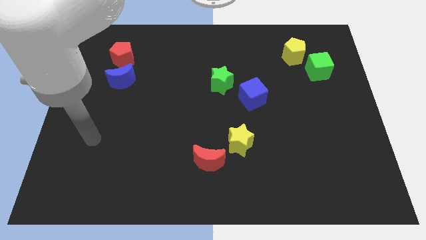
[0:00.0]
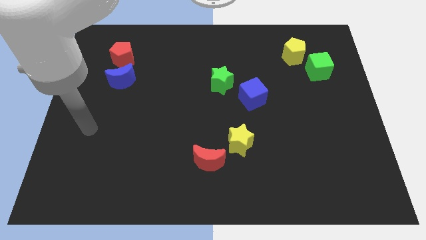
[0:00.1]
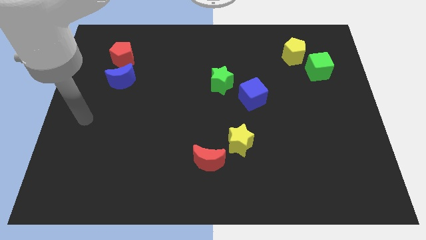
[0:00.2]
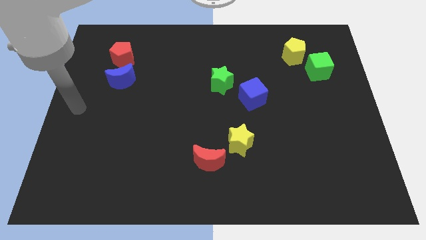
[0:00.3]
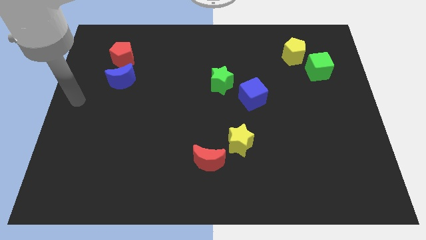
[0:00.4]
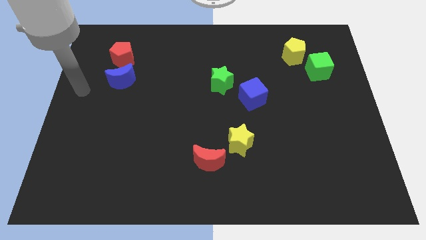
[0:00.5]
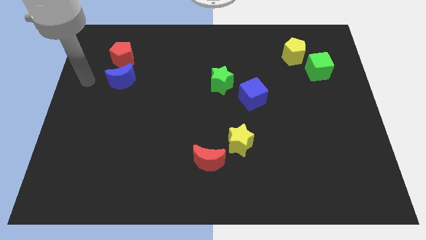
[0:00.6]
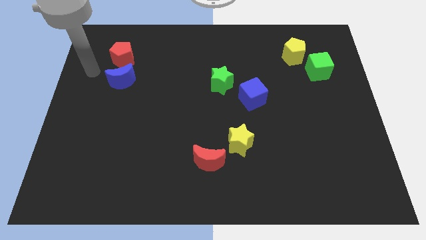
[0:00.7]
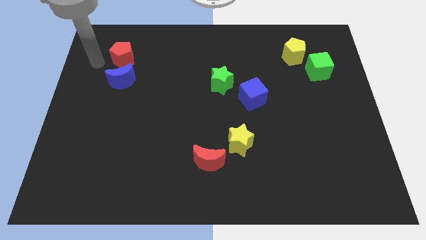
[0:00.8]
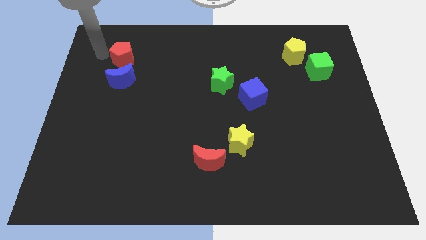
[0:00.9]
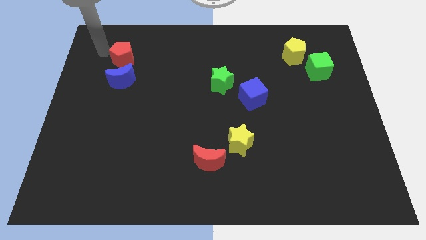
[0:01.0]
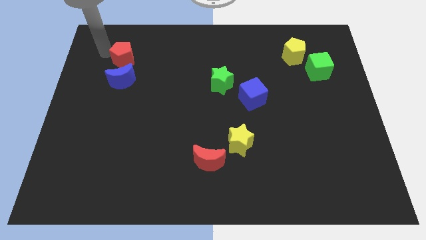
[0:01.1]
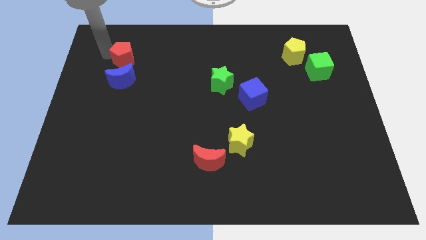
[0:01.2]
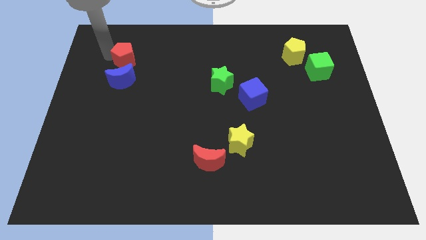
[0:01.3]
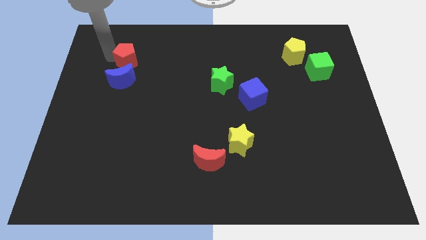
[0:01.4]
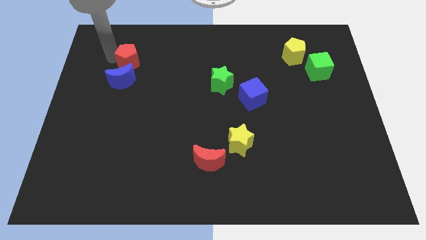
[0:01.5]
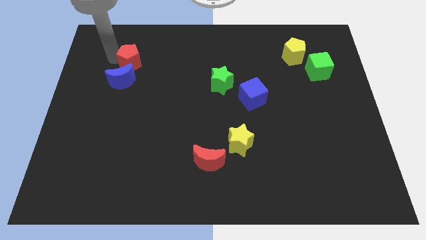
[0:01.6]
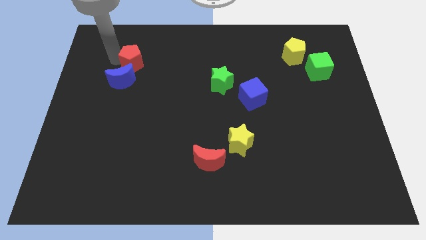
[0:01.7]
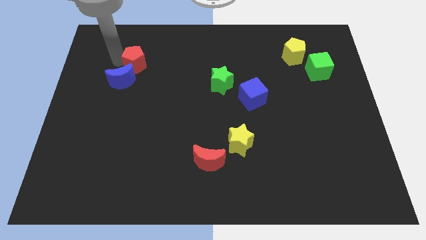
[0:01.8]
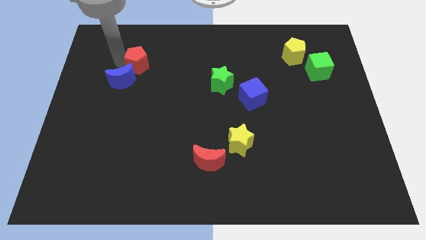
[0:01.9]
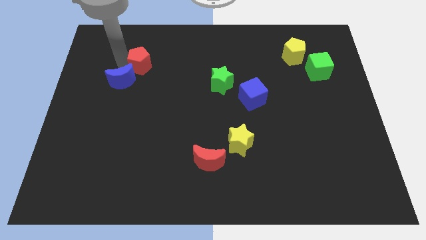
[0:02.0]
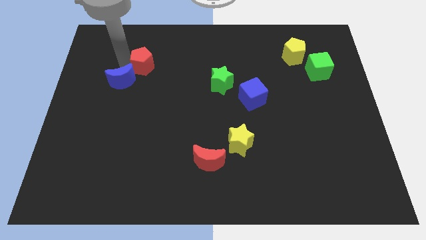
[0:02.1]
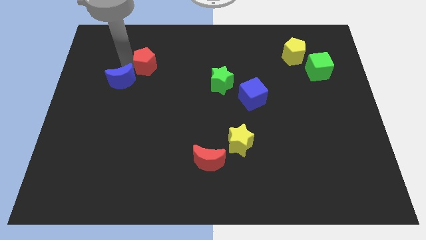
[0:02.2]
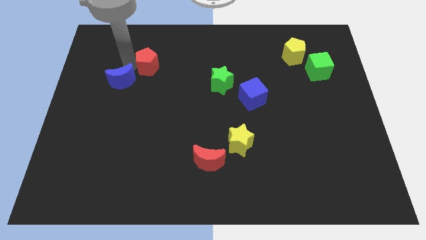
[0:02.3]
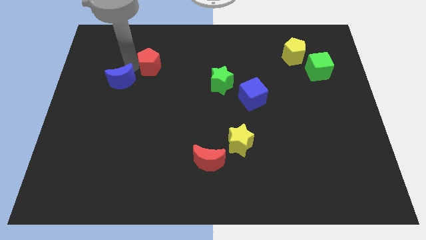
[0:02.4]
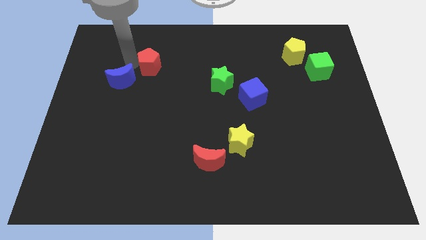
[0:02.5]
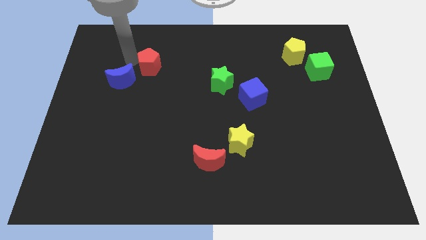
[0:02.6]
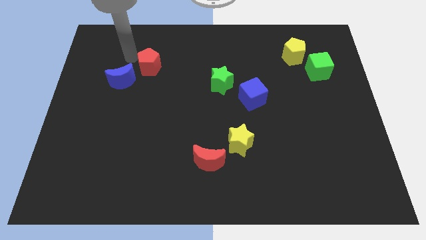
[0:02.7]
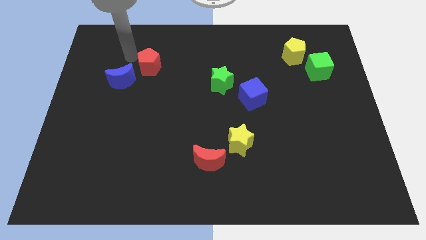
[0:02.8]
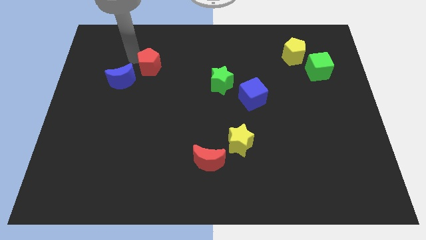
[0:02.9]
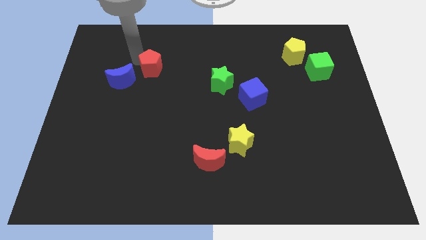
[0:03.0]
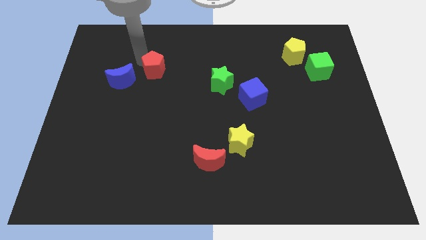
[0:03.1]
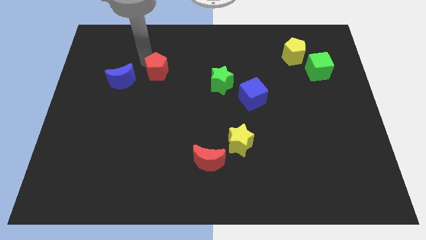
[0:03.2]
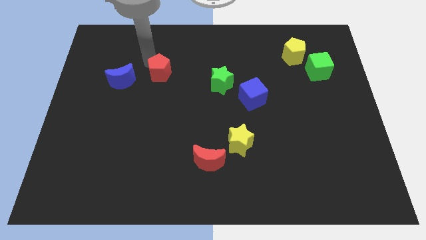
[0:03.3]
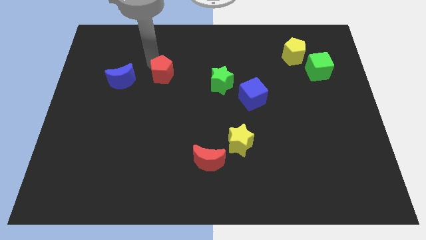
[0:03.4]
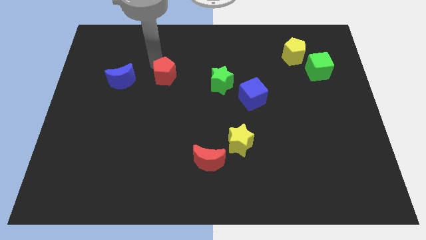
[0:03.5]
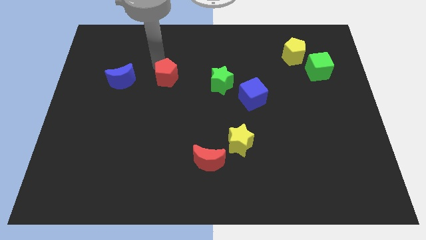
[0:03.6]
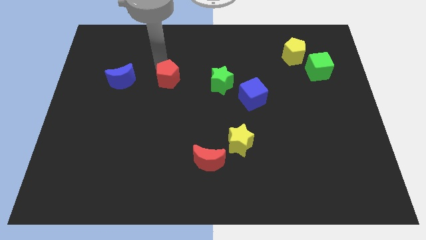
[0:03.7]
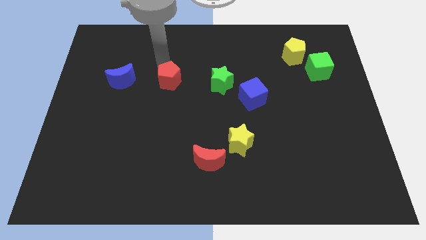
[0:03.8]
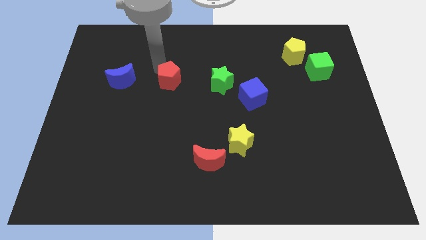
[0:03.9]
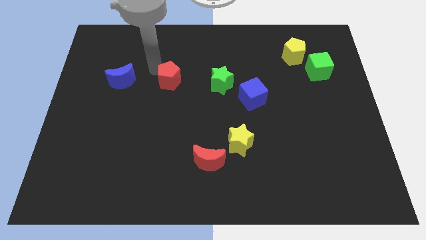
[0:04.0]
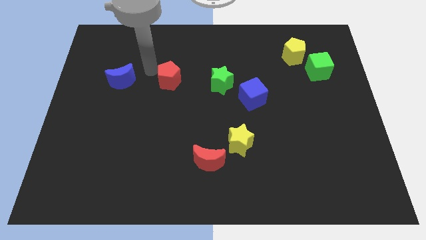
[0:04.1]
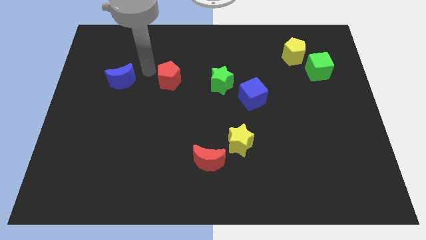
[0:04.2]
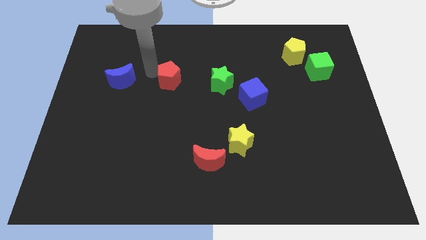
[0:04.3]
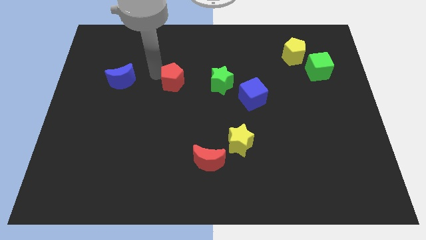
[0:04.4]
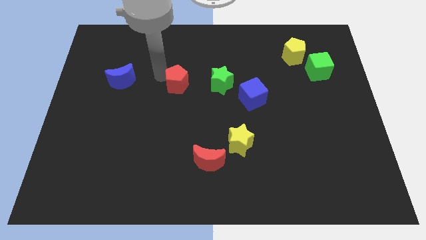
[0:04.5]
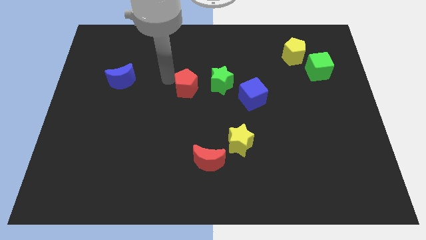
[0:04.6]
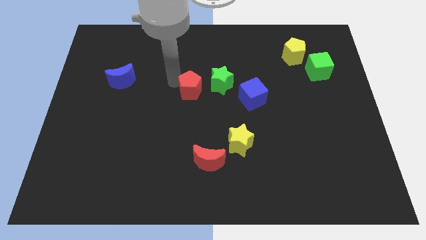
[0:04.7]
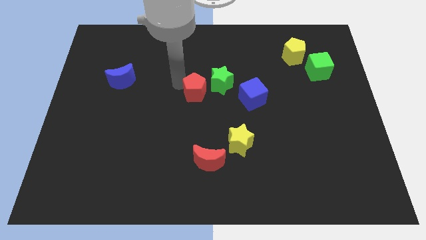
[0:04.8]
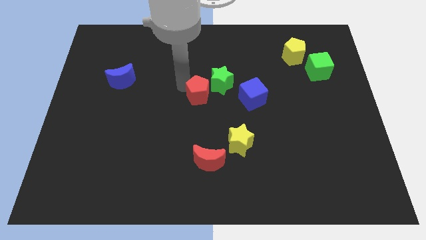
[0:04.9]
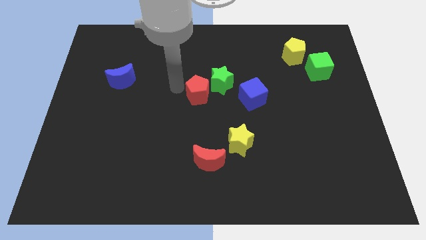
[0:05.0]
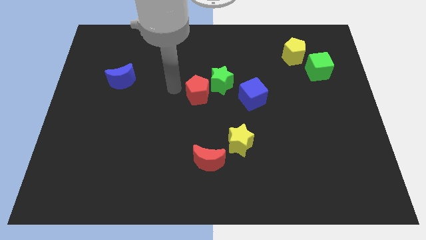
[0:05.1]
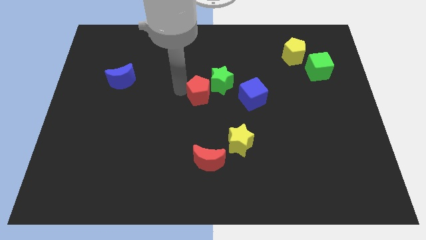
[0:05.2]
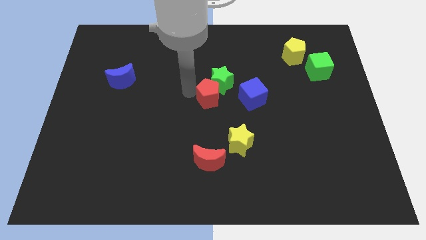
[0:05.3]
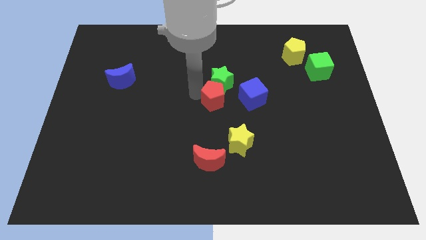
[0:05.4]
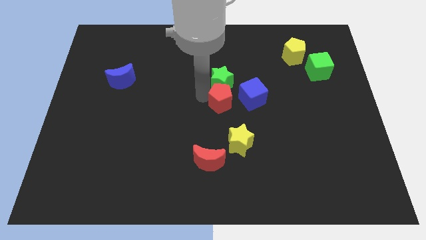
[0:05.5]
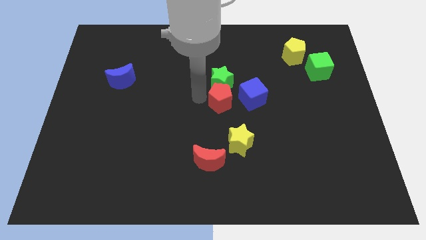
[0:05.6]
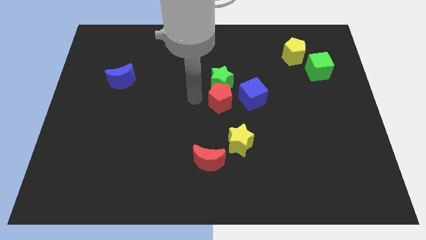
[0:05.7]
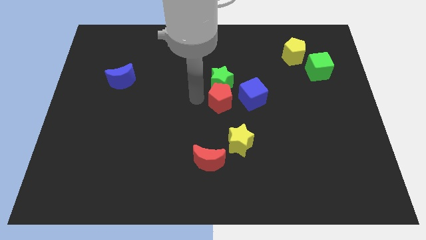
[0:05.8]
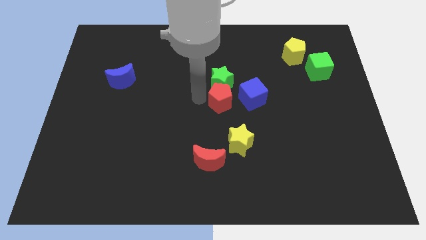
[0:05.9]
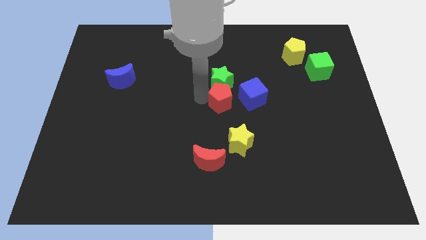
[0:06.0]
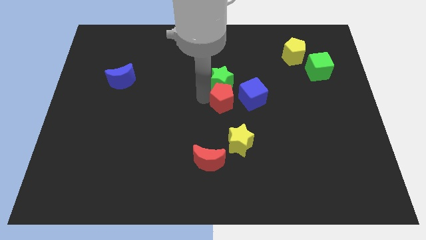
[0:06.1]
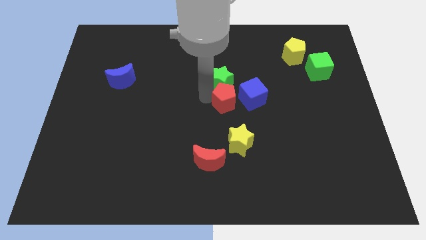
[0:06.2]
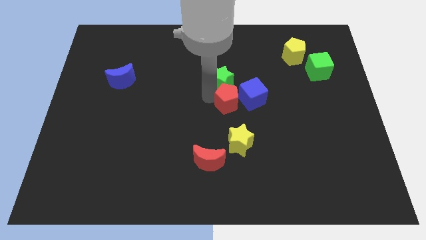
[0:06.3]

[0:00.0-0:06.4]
push the red pentagon next to the blue cube

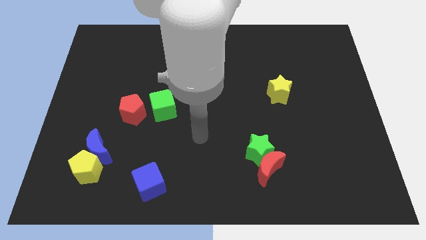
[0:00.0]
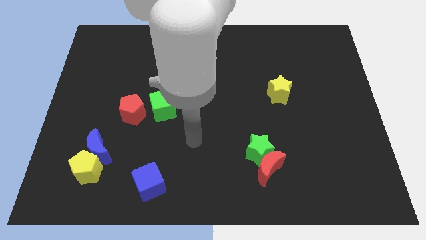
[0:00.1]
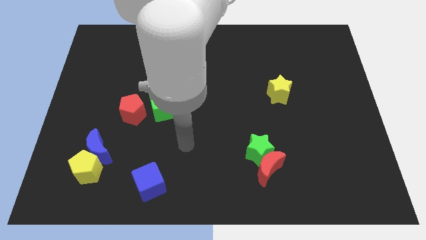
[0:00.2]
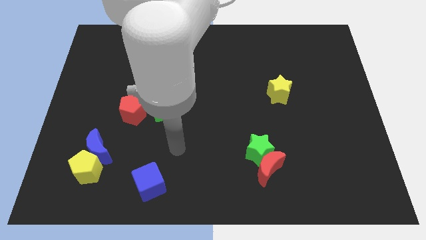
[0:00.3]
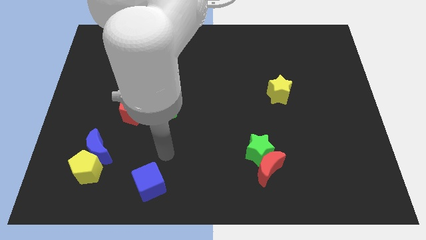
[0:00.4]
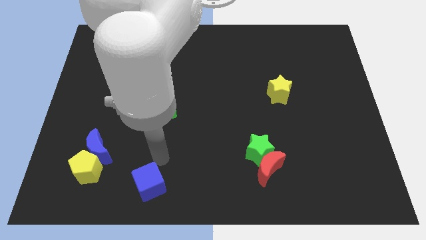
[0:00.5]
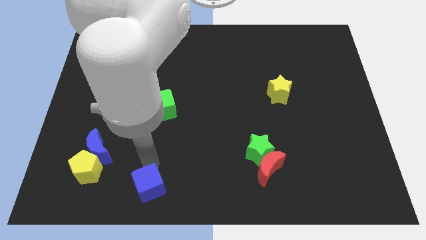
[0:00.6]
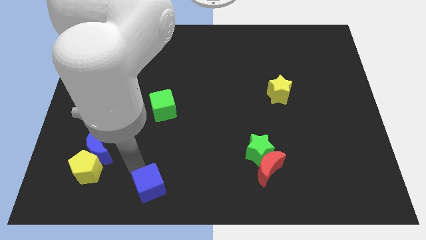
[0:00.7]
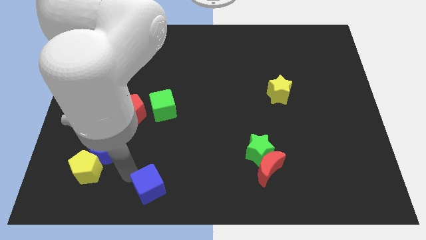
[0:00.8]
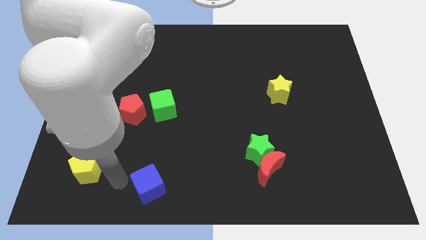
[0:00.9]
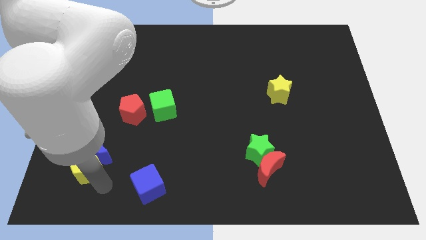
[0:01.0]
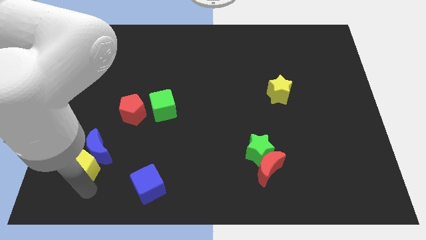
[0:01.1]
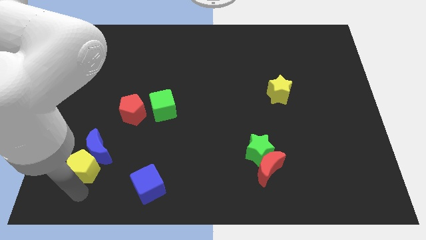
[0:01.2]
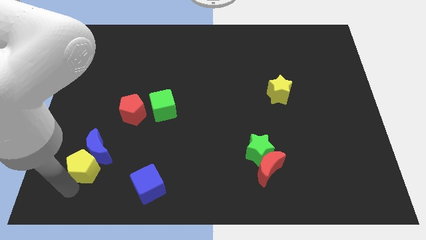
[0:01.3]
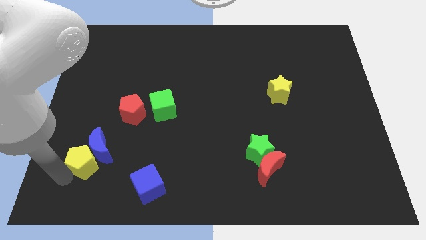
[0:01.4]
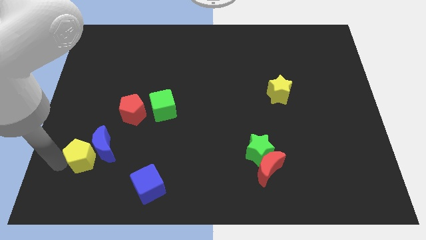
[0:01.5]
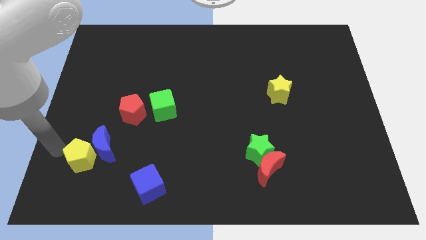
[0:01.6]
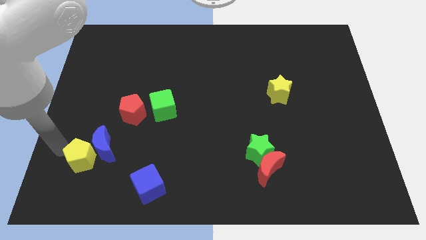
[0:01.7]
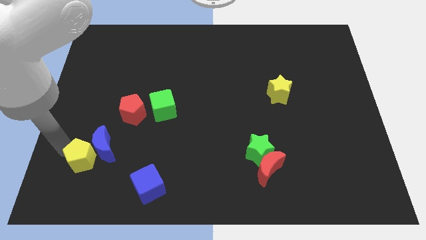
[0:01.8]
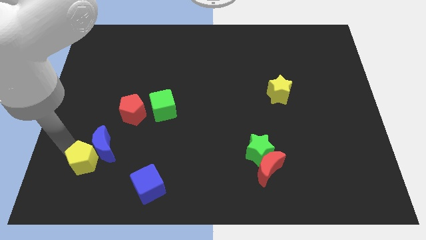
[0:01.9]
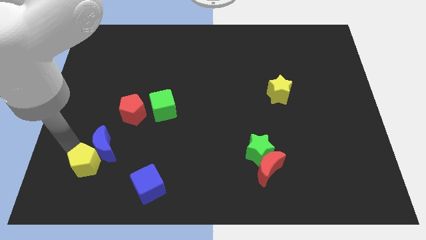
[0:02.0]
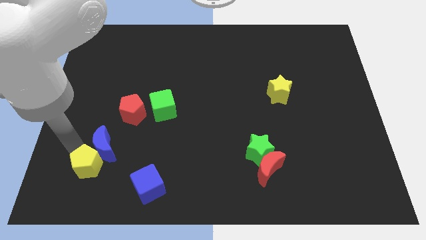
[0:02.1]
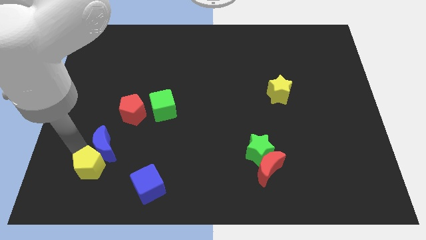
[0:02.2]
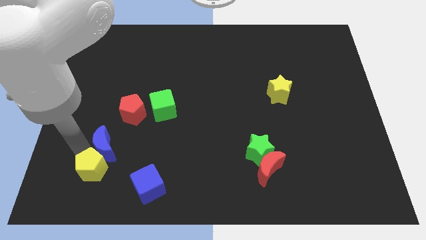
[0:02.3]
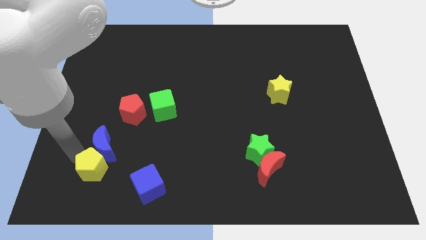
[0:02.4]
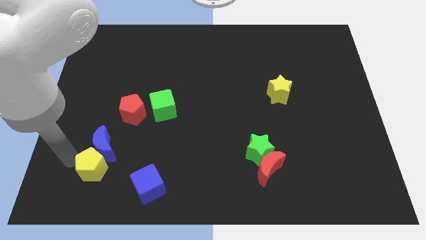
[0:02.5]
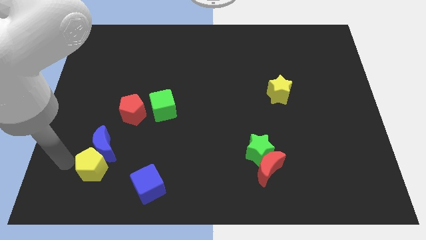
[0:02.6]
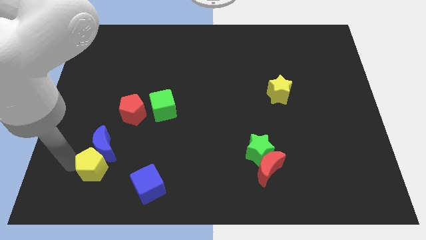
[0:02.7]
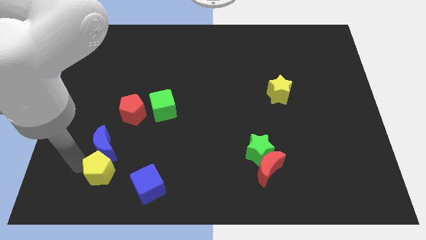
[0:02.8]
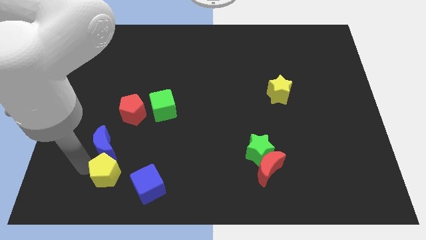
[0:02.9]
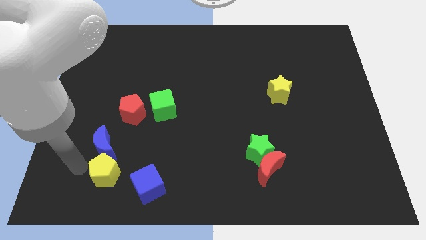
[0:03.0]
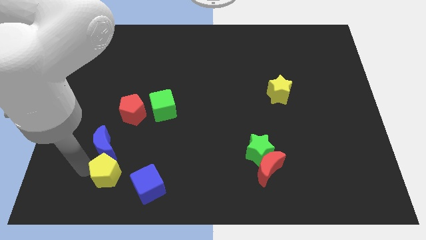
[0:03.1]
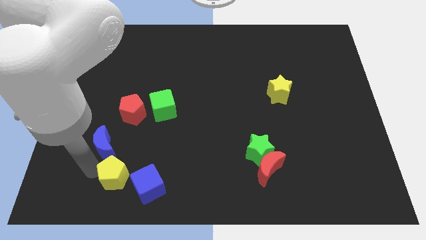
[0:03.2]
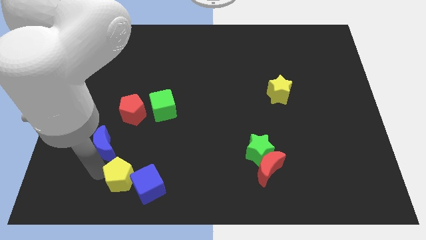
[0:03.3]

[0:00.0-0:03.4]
put the yellow pentagon towards the blue cube
